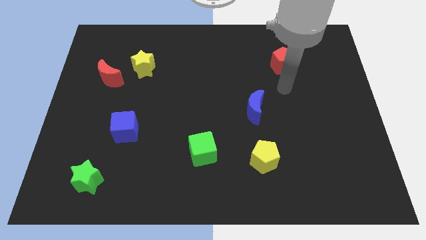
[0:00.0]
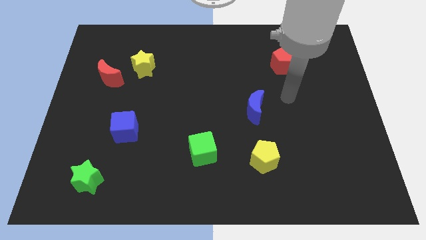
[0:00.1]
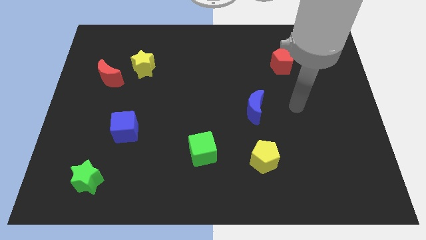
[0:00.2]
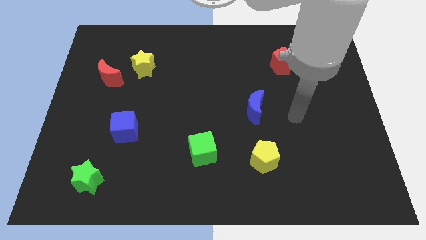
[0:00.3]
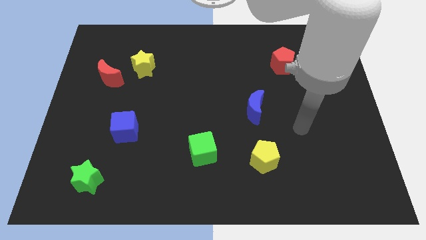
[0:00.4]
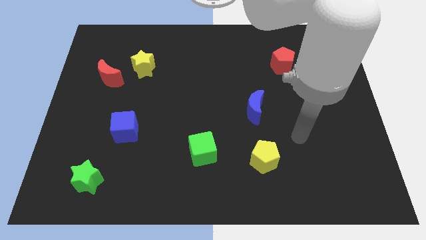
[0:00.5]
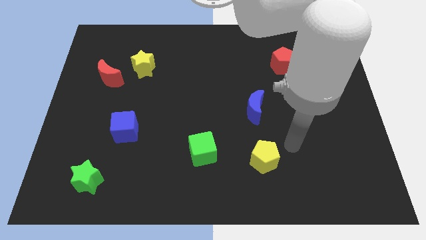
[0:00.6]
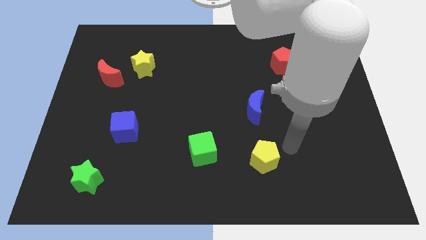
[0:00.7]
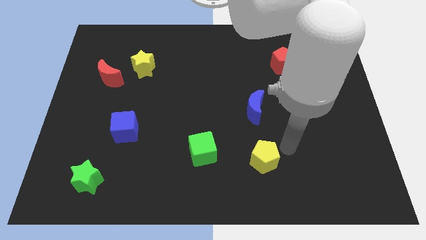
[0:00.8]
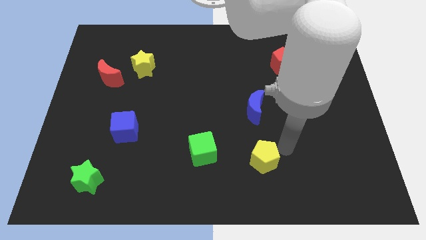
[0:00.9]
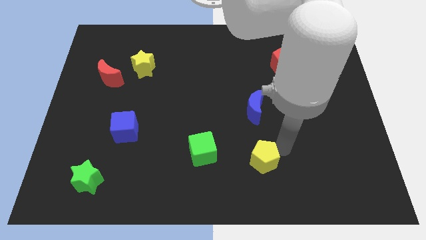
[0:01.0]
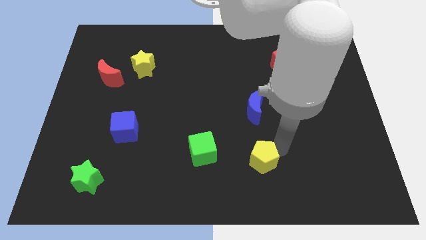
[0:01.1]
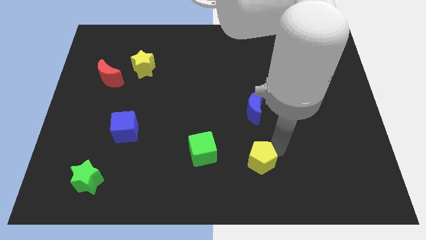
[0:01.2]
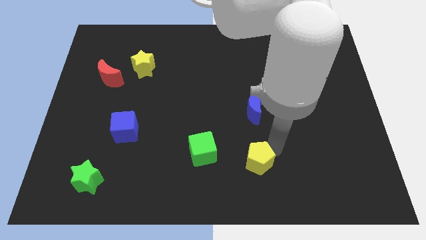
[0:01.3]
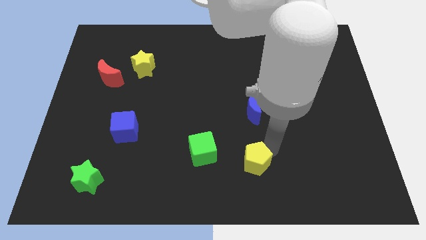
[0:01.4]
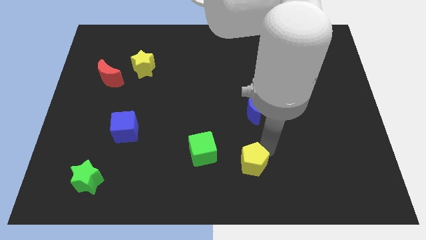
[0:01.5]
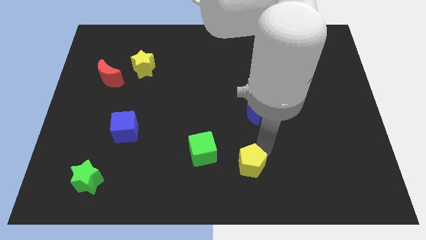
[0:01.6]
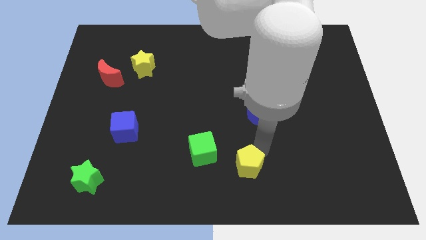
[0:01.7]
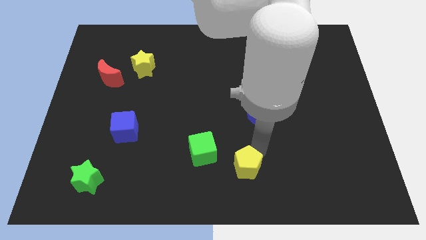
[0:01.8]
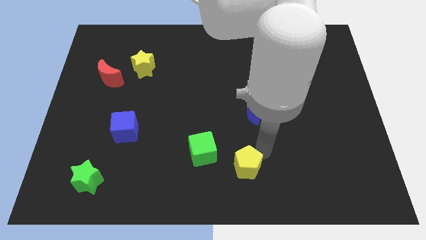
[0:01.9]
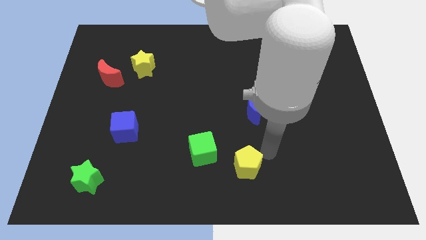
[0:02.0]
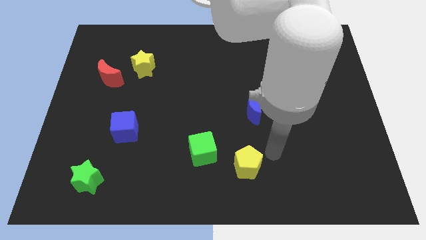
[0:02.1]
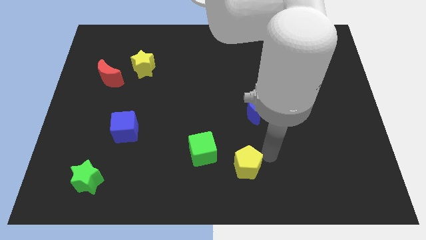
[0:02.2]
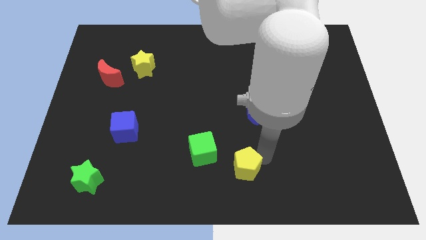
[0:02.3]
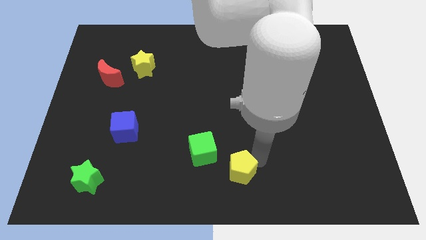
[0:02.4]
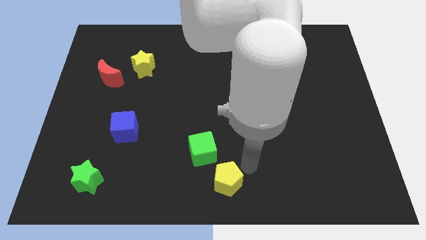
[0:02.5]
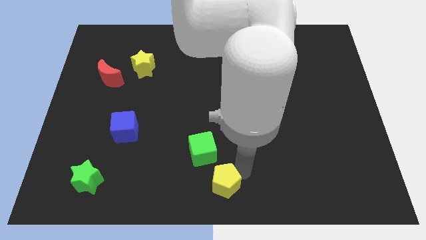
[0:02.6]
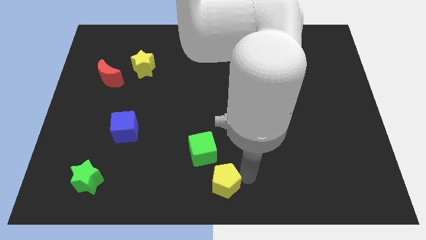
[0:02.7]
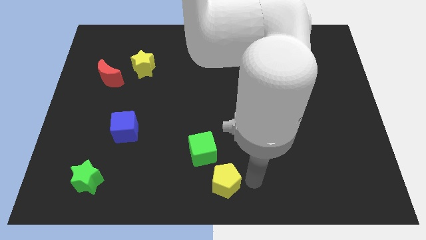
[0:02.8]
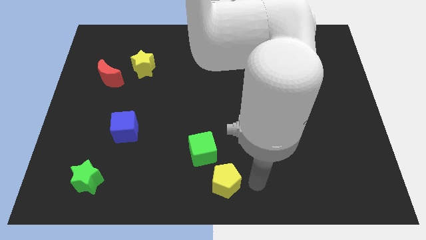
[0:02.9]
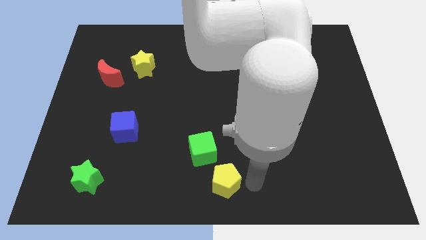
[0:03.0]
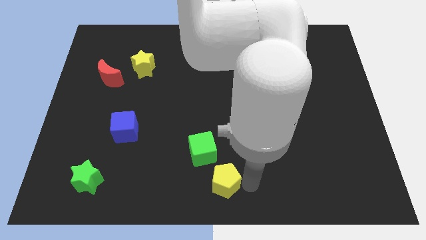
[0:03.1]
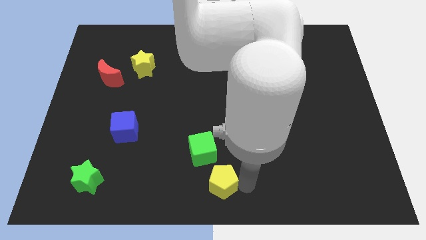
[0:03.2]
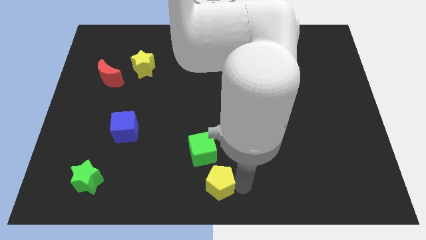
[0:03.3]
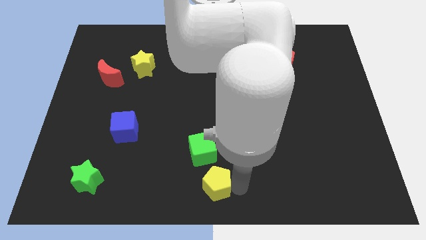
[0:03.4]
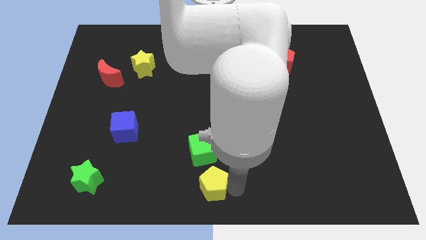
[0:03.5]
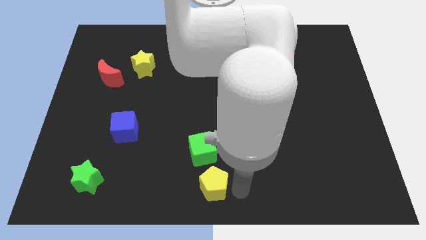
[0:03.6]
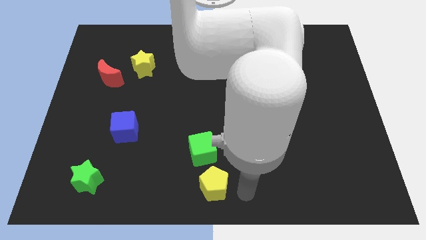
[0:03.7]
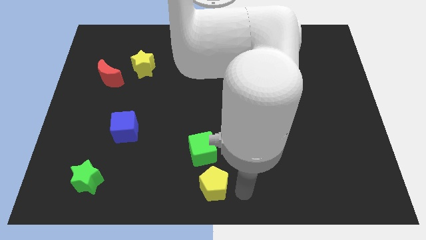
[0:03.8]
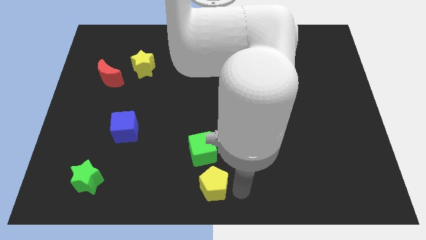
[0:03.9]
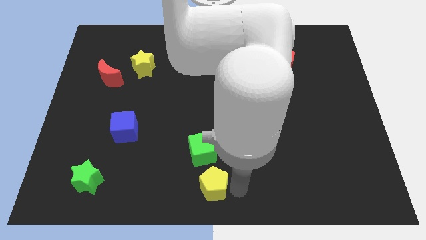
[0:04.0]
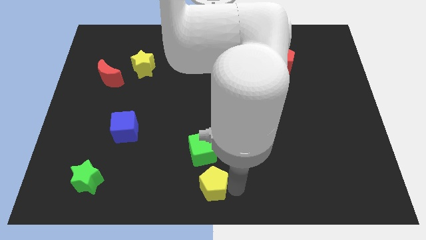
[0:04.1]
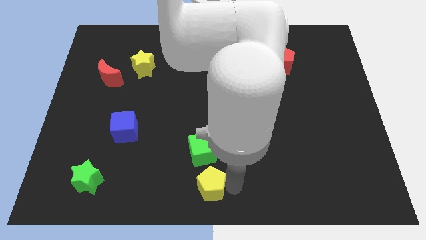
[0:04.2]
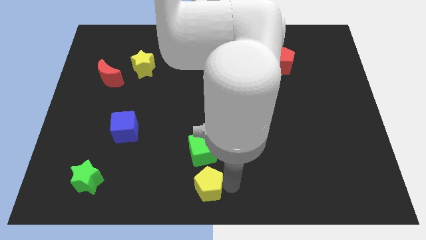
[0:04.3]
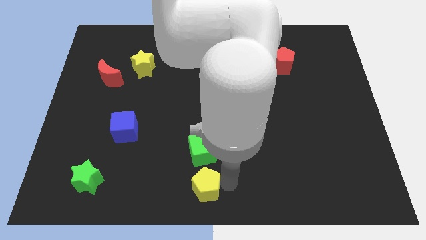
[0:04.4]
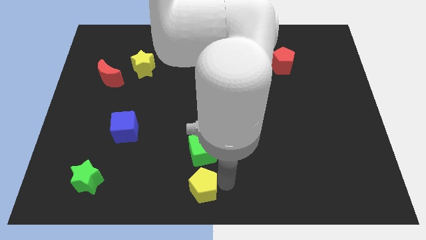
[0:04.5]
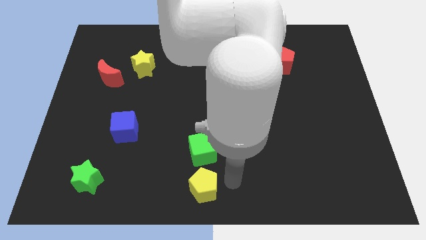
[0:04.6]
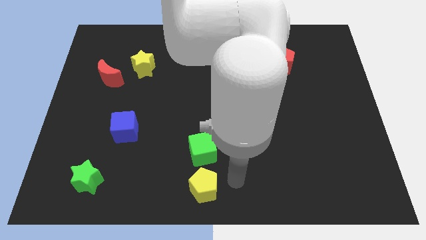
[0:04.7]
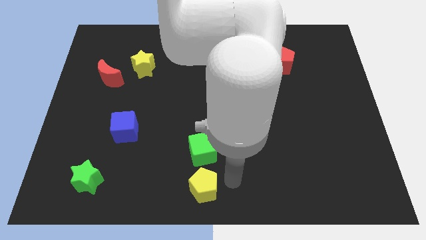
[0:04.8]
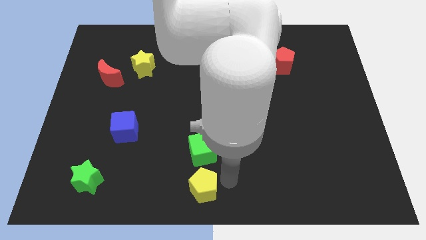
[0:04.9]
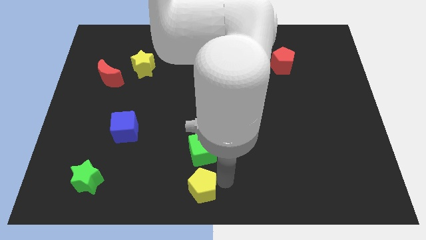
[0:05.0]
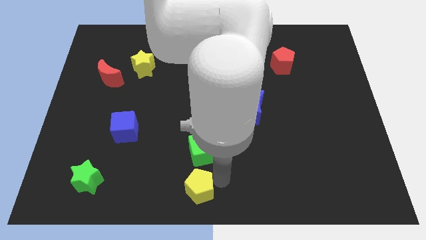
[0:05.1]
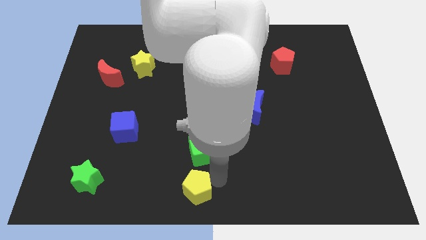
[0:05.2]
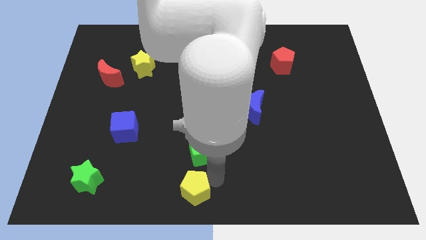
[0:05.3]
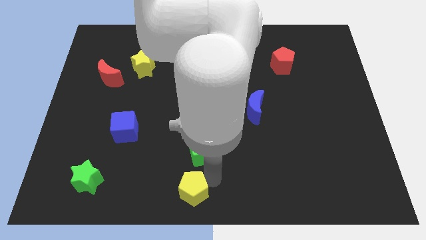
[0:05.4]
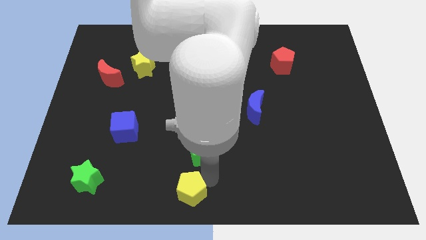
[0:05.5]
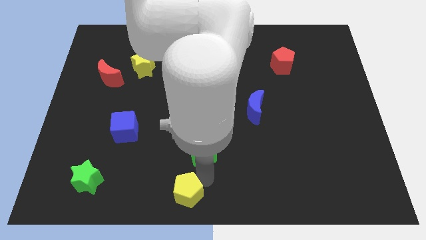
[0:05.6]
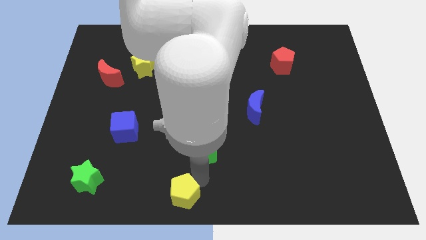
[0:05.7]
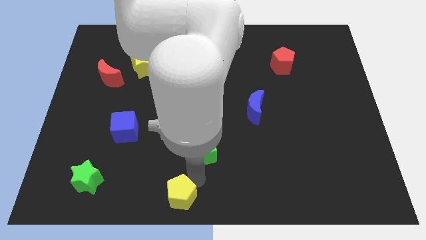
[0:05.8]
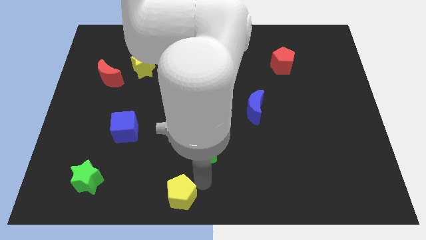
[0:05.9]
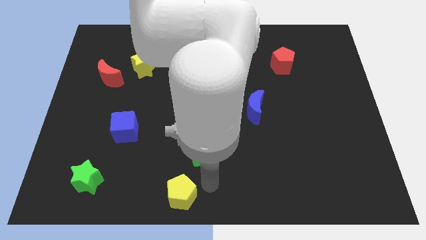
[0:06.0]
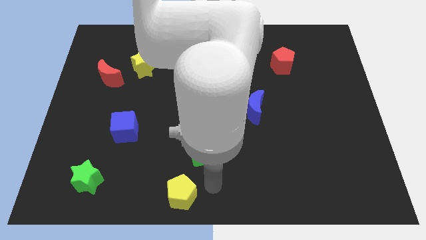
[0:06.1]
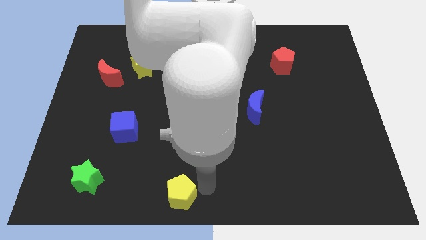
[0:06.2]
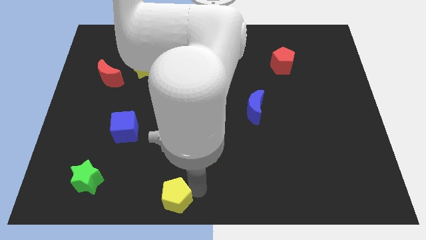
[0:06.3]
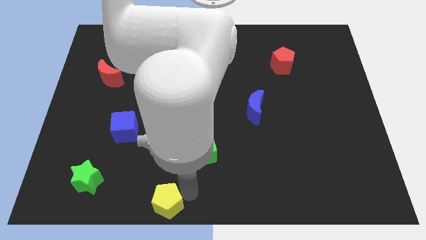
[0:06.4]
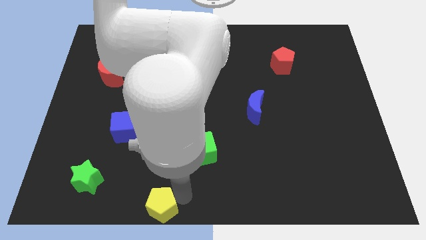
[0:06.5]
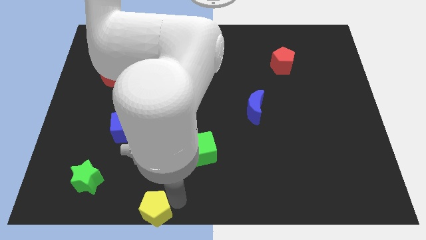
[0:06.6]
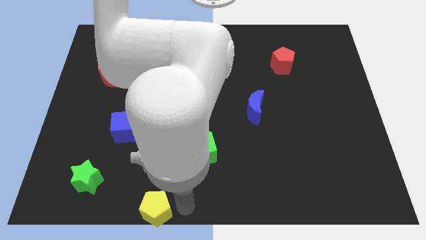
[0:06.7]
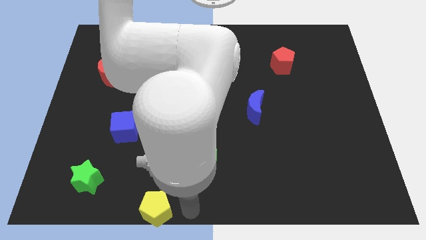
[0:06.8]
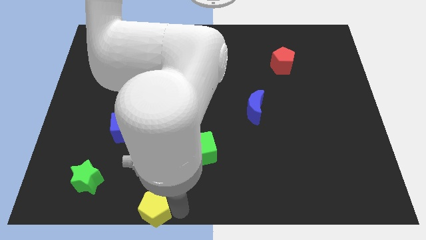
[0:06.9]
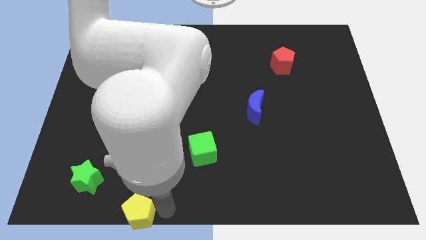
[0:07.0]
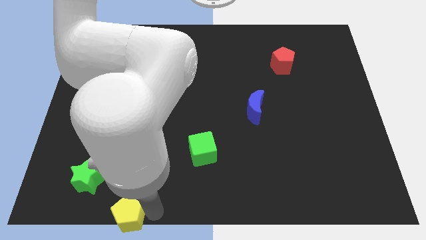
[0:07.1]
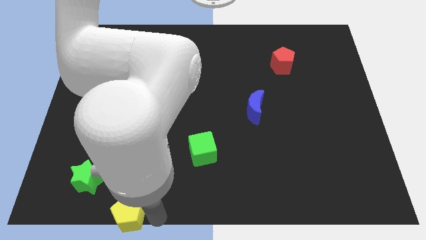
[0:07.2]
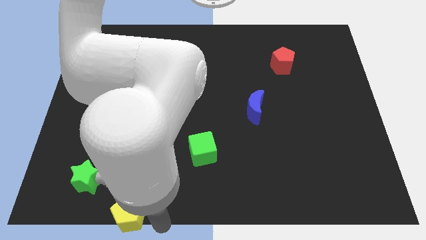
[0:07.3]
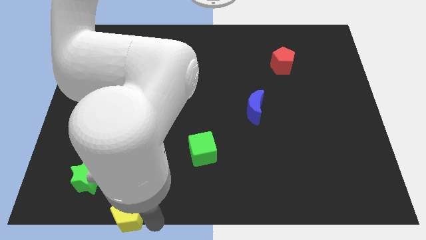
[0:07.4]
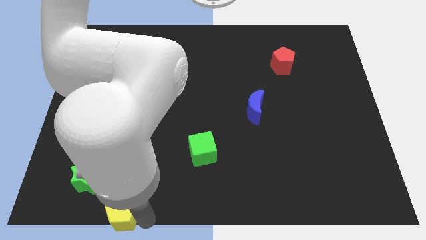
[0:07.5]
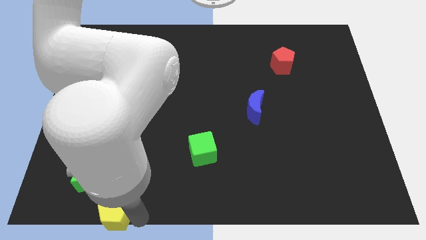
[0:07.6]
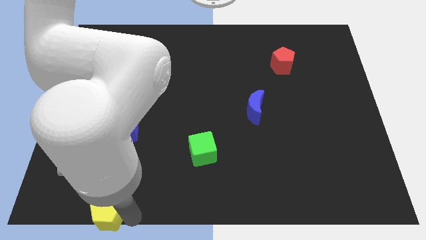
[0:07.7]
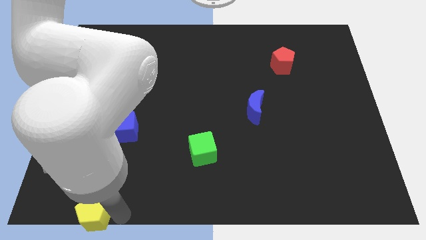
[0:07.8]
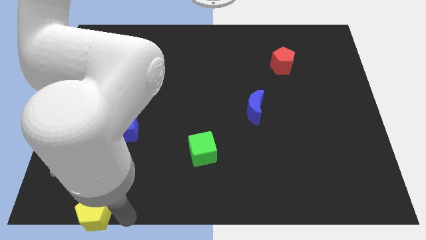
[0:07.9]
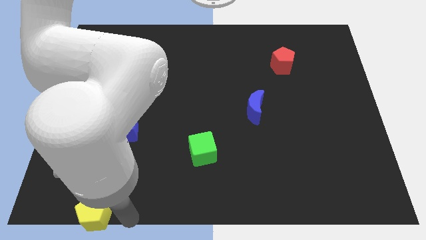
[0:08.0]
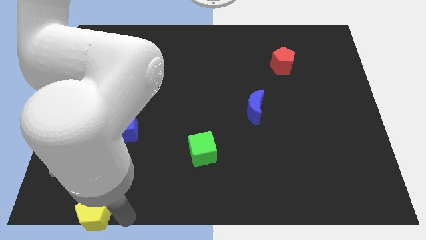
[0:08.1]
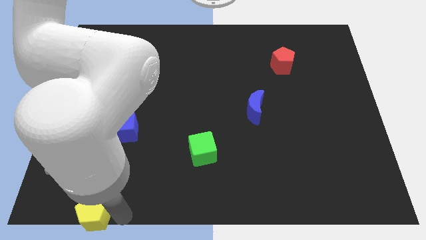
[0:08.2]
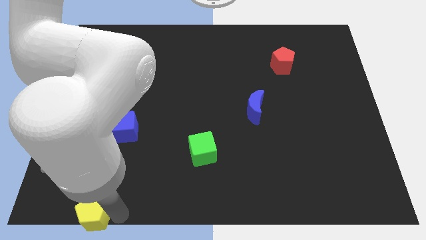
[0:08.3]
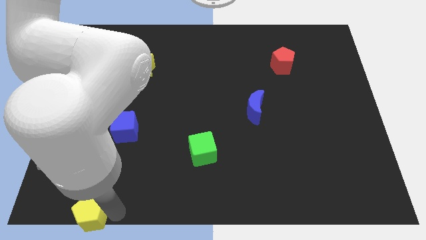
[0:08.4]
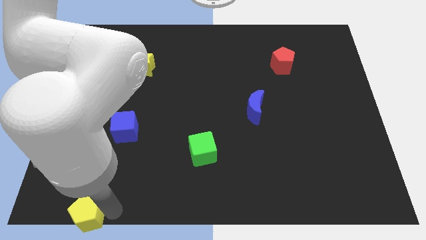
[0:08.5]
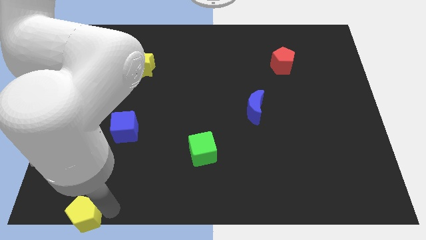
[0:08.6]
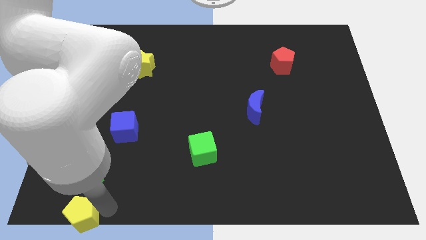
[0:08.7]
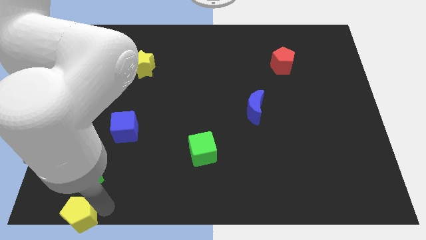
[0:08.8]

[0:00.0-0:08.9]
move the yellow pentagon to the bottom left of the board
